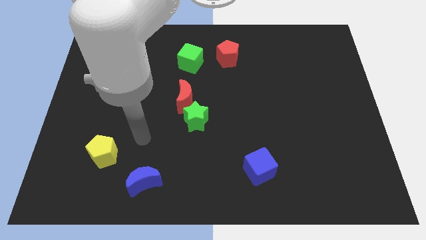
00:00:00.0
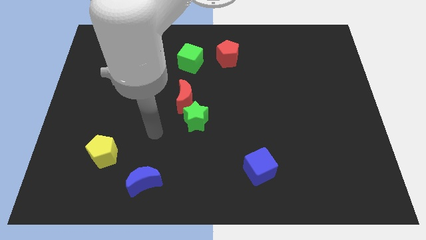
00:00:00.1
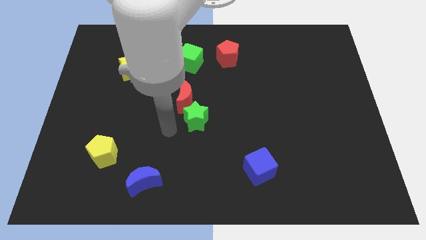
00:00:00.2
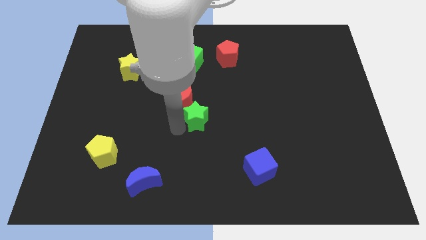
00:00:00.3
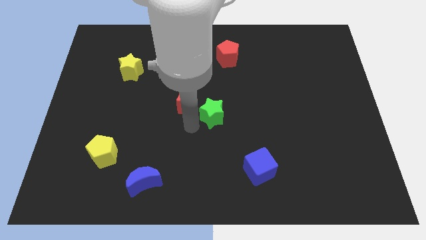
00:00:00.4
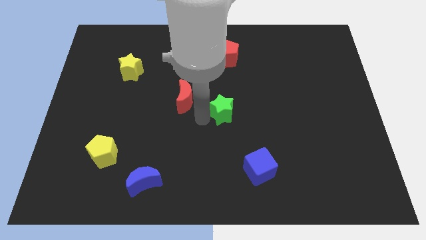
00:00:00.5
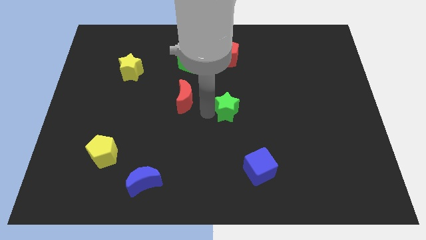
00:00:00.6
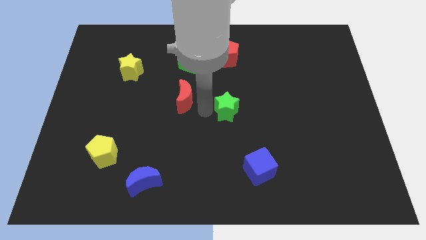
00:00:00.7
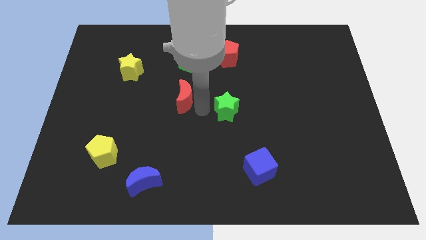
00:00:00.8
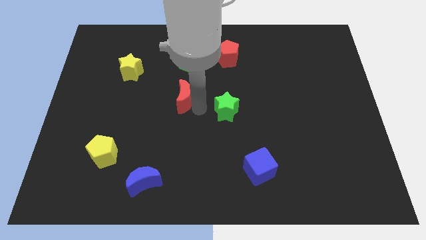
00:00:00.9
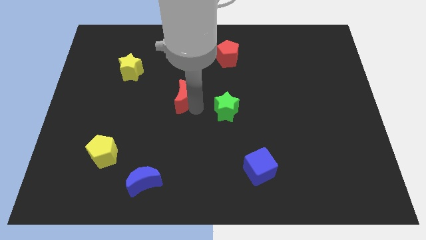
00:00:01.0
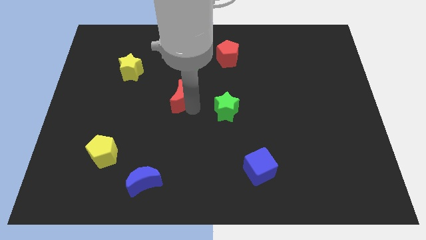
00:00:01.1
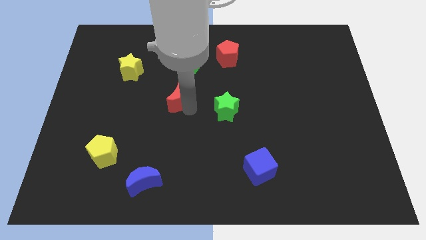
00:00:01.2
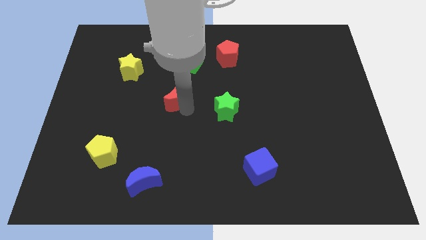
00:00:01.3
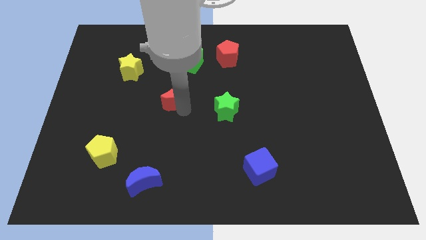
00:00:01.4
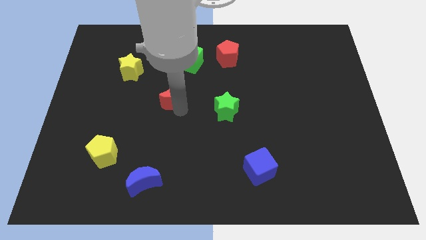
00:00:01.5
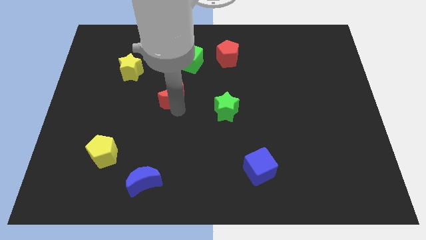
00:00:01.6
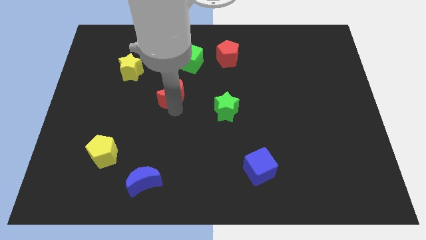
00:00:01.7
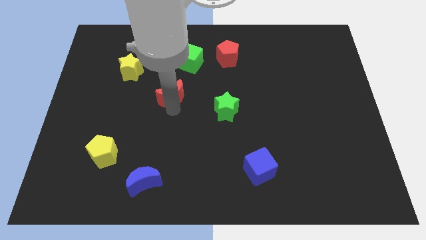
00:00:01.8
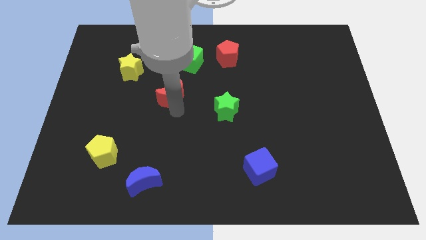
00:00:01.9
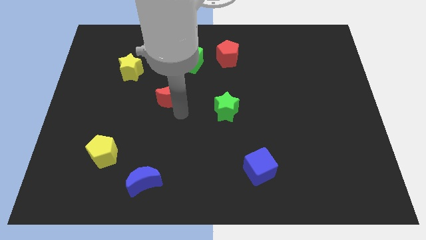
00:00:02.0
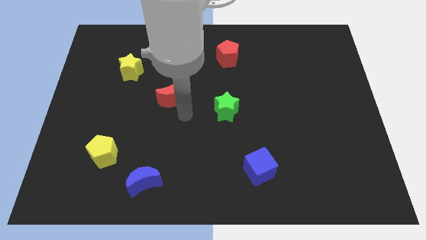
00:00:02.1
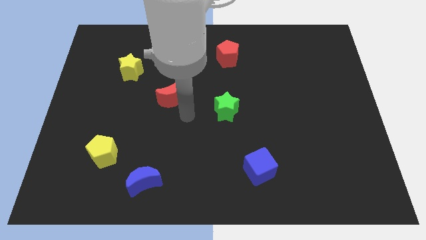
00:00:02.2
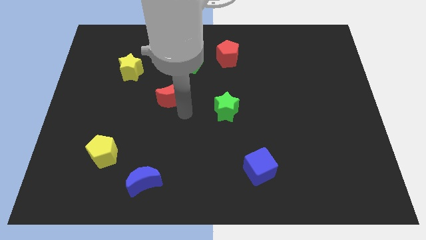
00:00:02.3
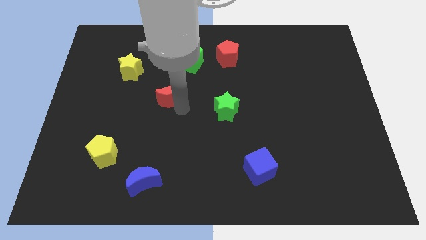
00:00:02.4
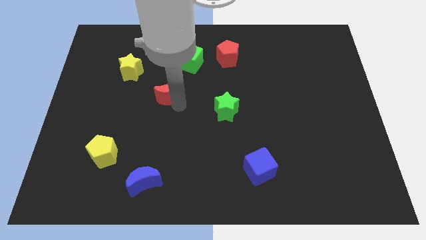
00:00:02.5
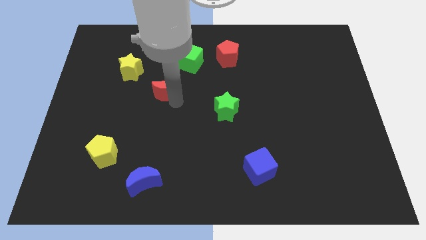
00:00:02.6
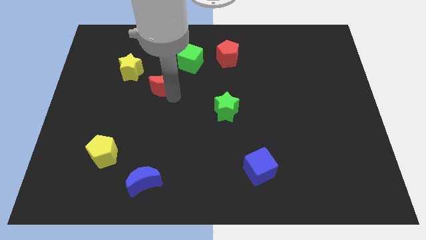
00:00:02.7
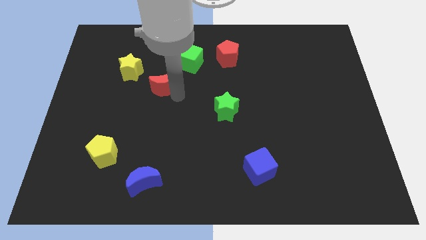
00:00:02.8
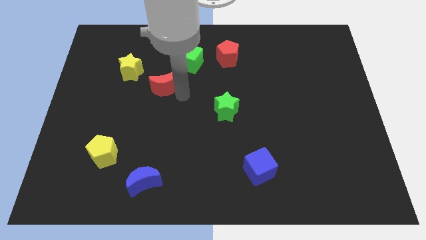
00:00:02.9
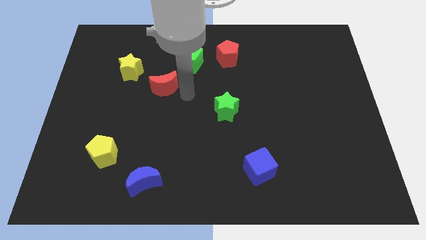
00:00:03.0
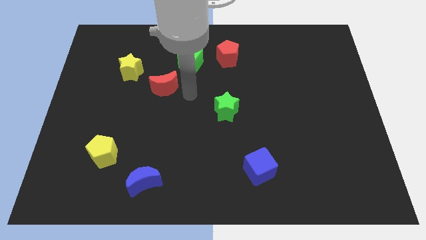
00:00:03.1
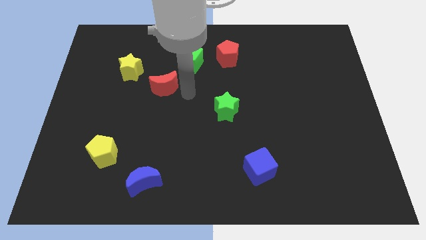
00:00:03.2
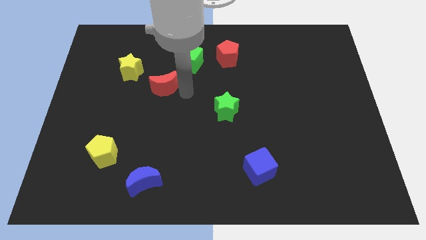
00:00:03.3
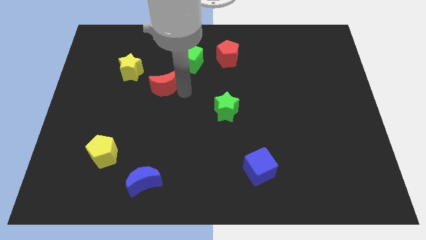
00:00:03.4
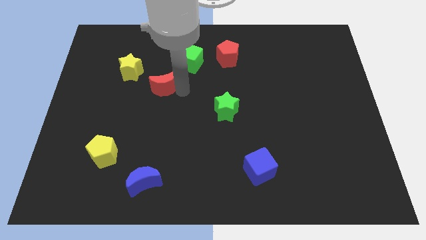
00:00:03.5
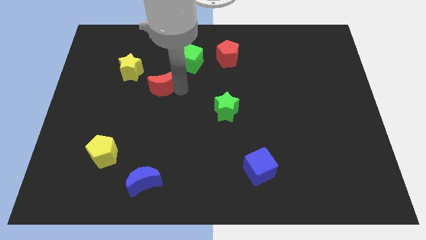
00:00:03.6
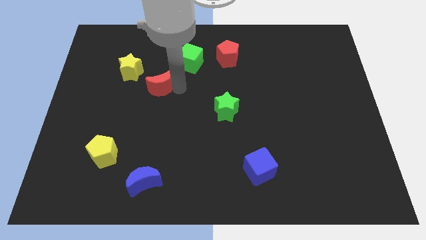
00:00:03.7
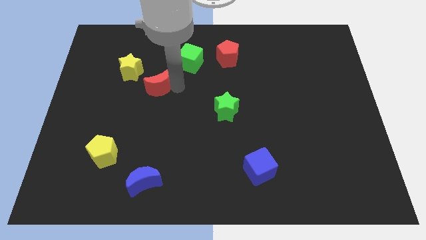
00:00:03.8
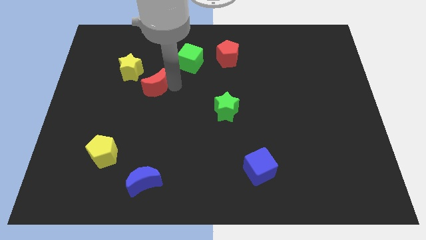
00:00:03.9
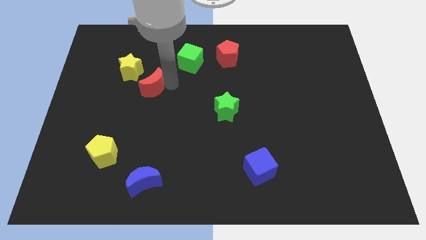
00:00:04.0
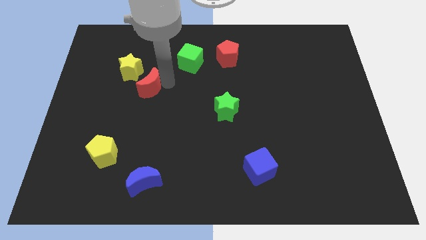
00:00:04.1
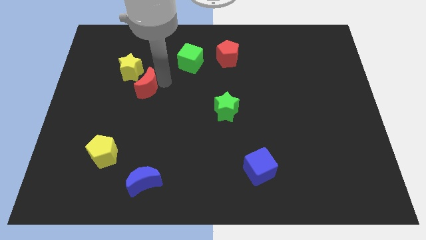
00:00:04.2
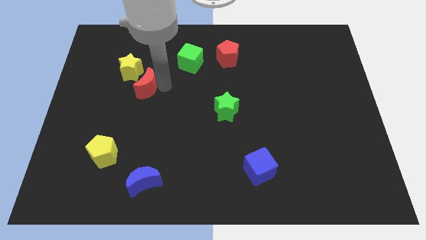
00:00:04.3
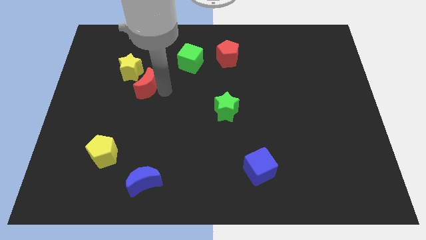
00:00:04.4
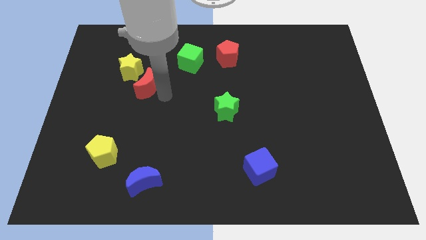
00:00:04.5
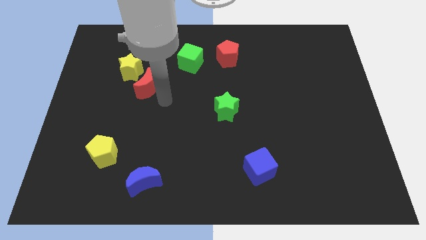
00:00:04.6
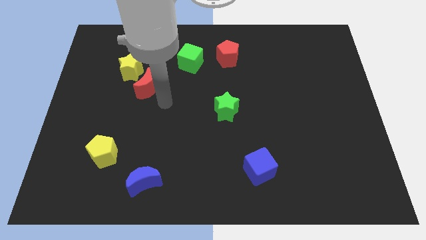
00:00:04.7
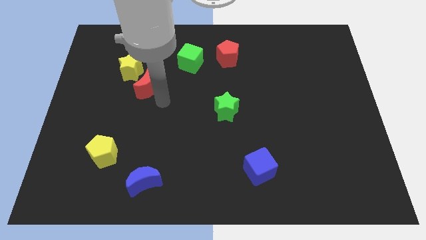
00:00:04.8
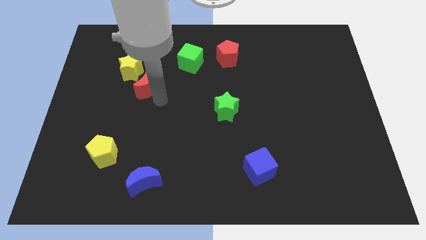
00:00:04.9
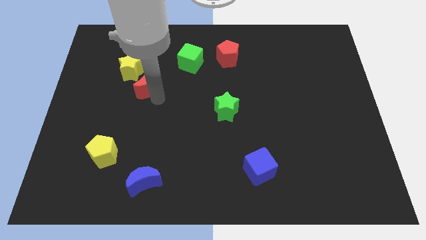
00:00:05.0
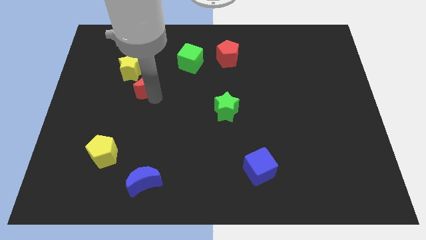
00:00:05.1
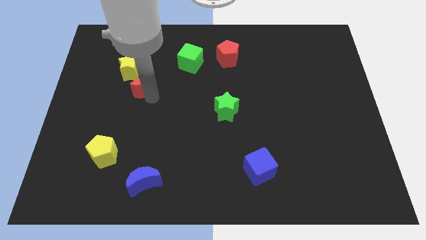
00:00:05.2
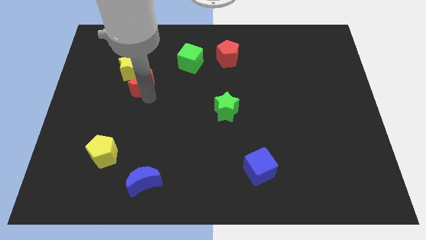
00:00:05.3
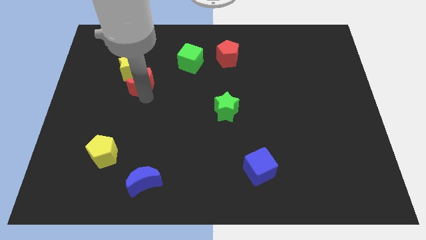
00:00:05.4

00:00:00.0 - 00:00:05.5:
slide the red moon to the yellow star

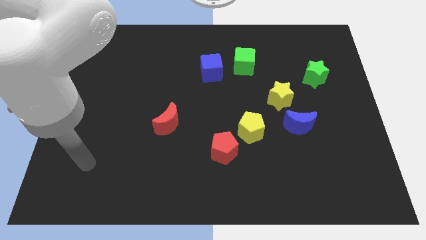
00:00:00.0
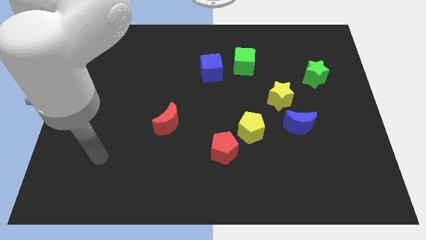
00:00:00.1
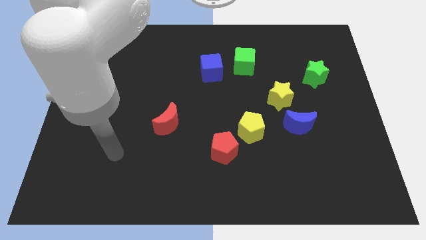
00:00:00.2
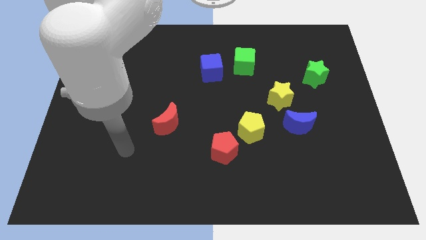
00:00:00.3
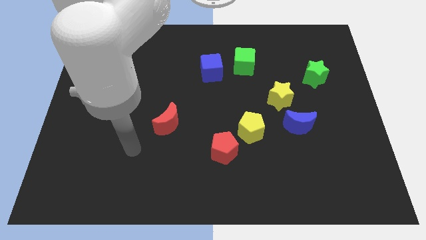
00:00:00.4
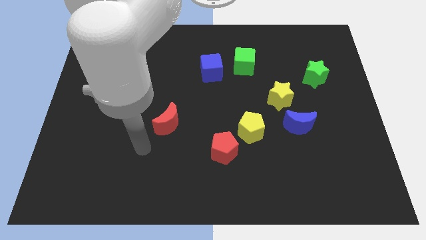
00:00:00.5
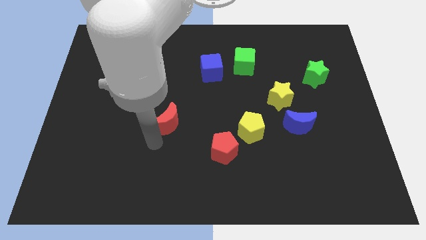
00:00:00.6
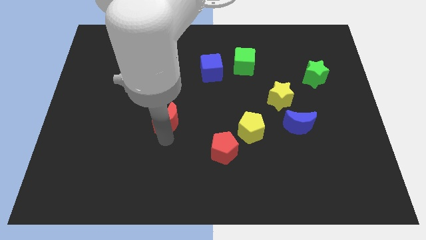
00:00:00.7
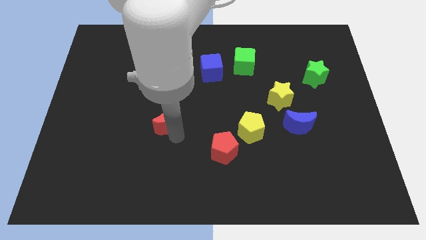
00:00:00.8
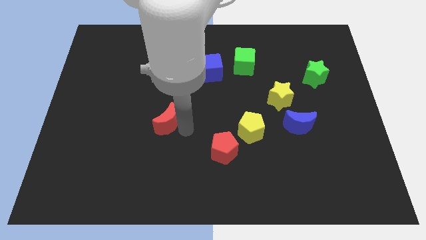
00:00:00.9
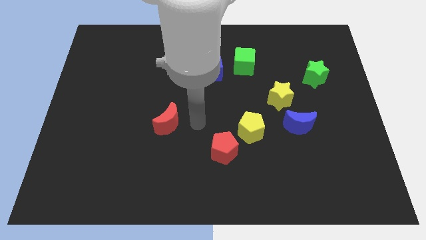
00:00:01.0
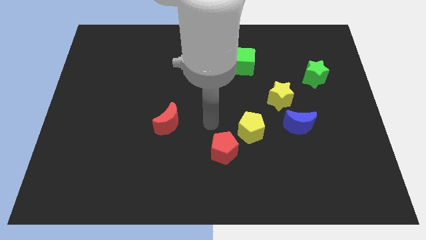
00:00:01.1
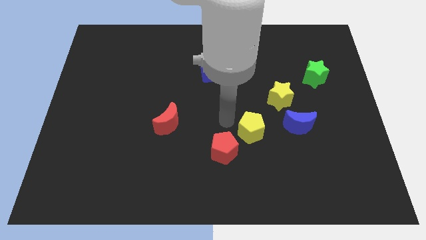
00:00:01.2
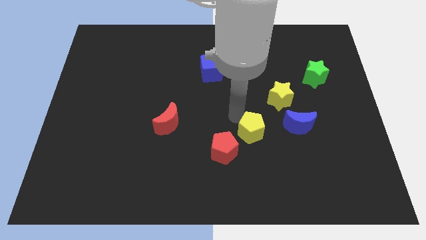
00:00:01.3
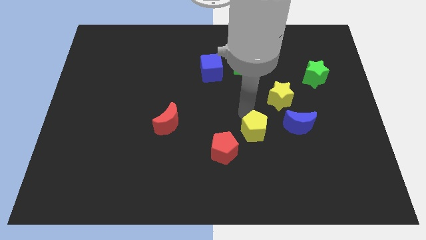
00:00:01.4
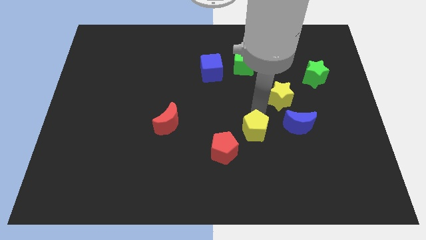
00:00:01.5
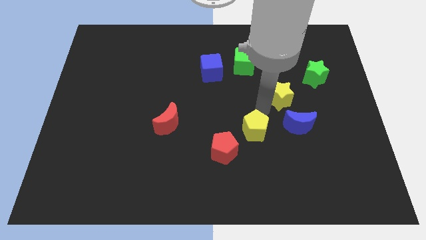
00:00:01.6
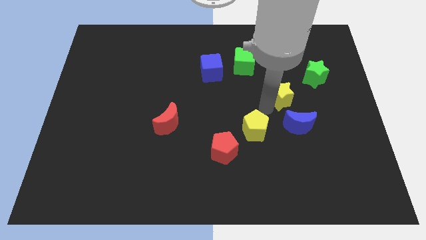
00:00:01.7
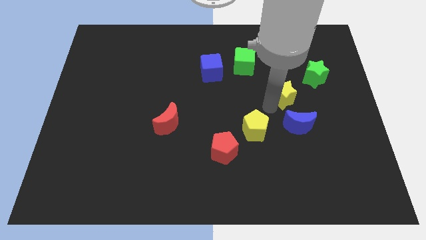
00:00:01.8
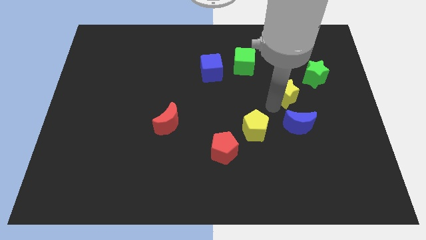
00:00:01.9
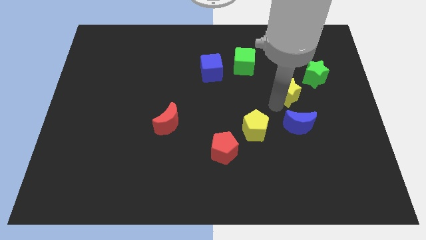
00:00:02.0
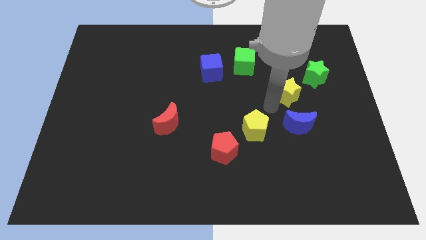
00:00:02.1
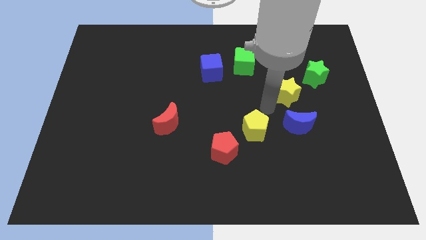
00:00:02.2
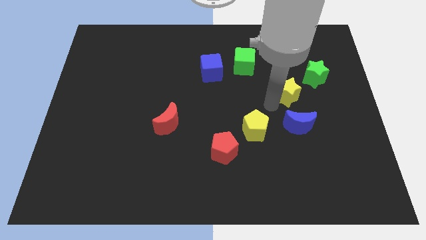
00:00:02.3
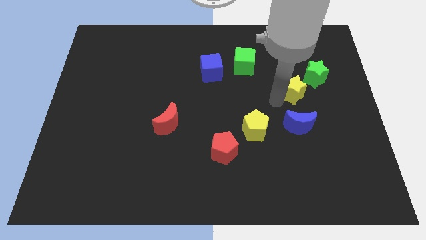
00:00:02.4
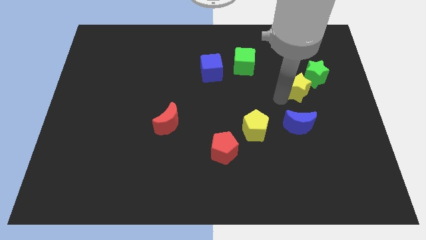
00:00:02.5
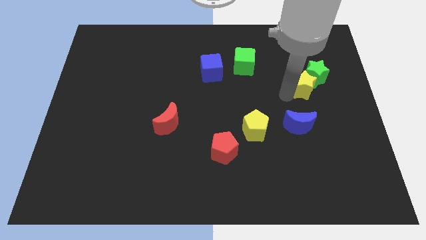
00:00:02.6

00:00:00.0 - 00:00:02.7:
put the yellow star close to the green star
